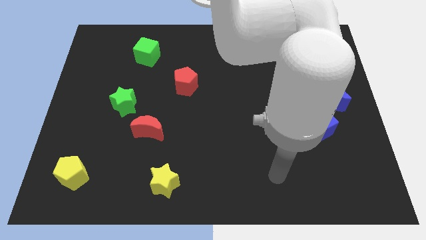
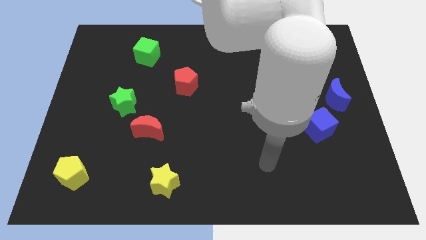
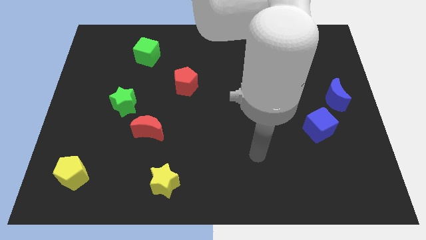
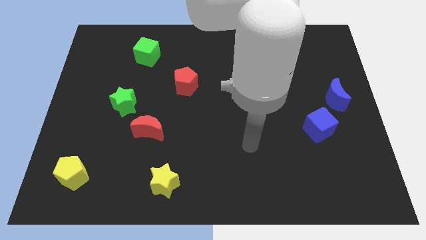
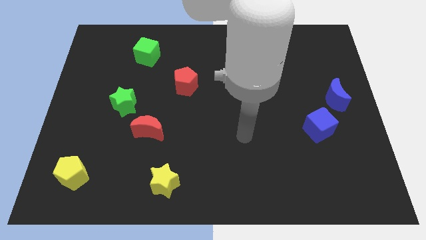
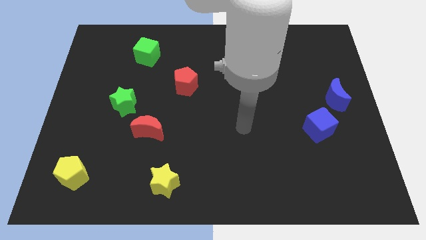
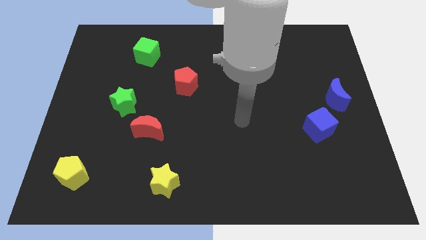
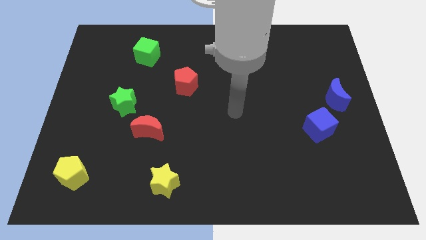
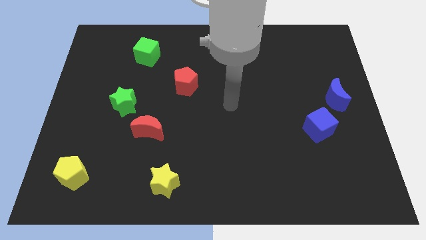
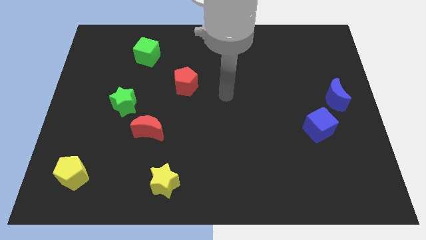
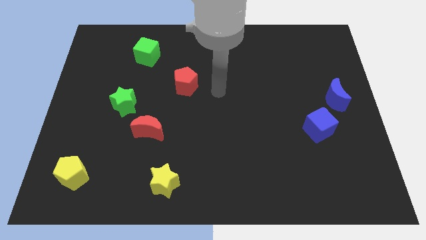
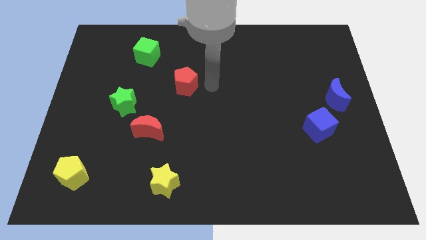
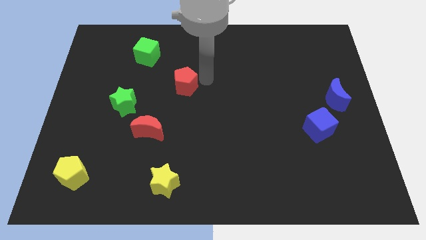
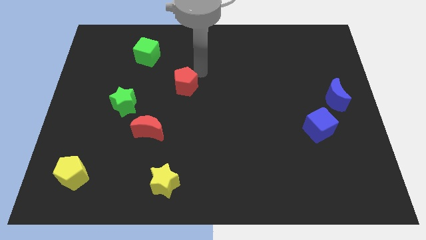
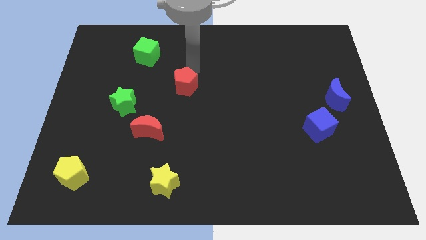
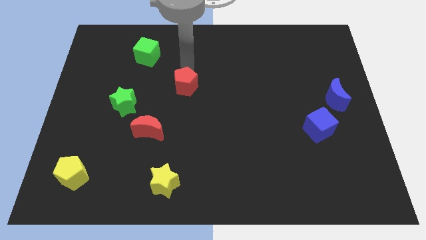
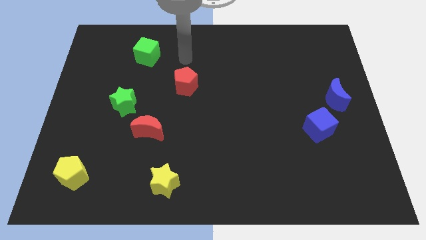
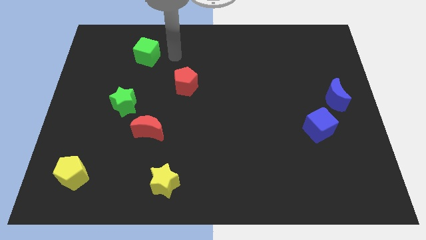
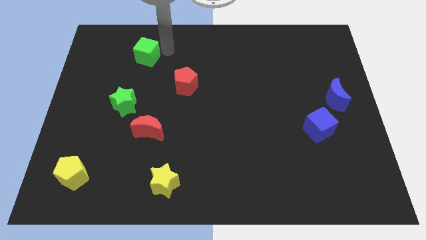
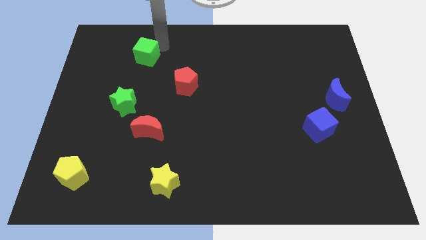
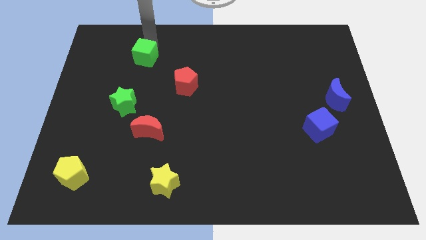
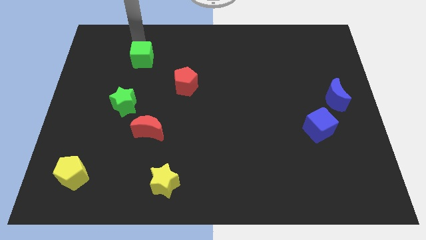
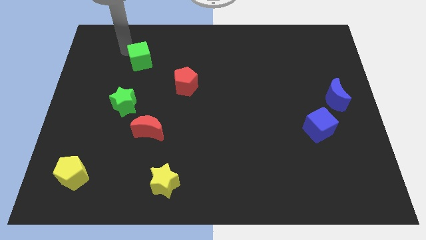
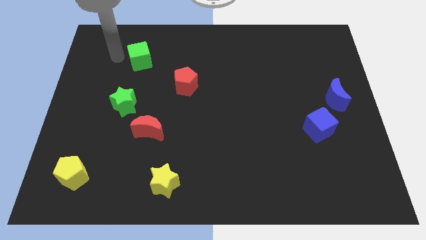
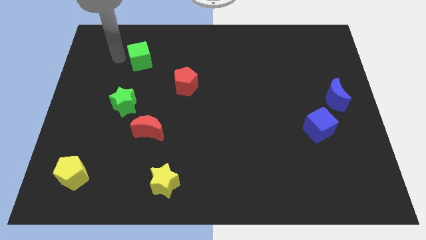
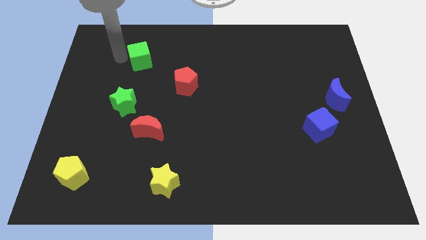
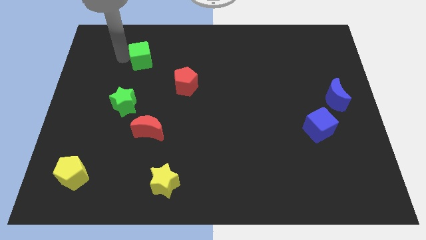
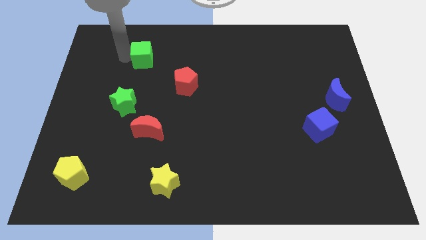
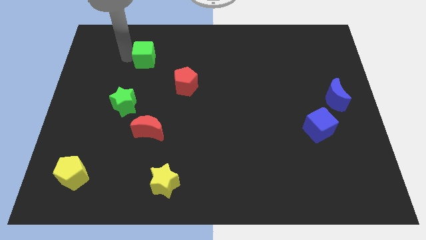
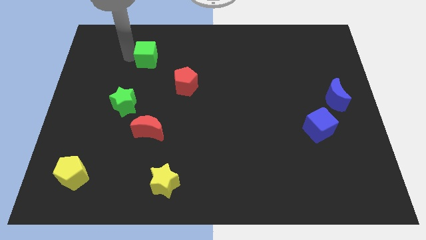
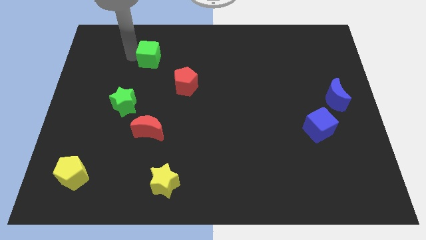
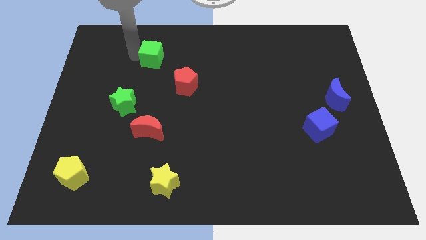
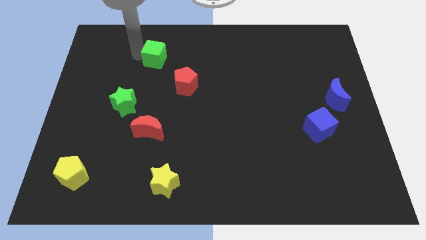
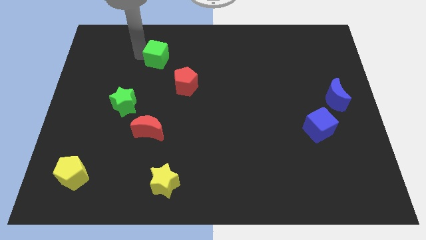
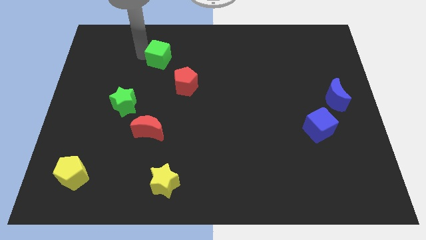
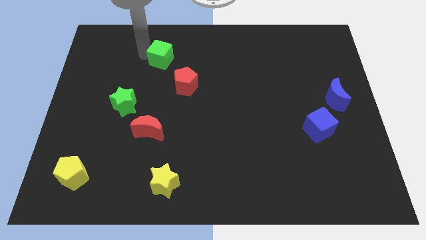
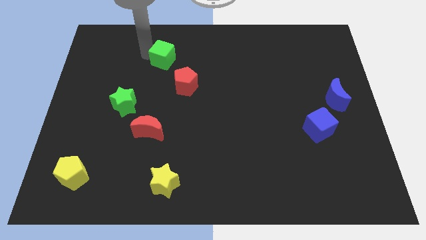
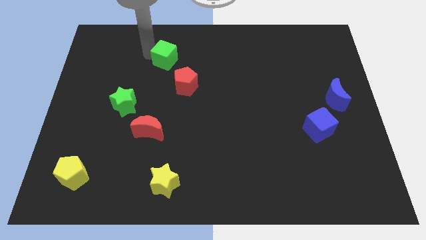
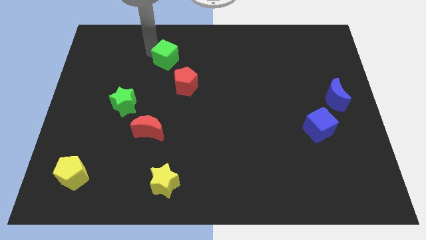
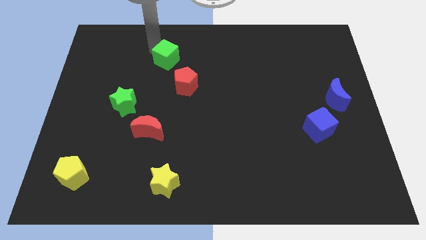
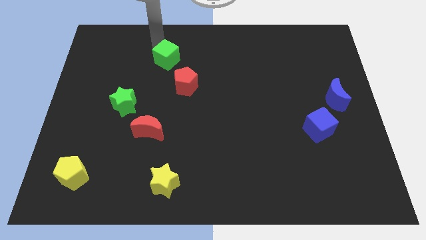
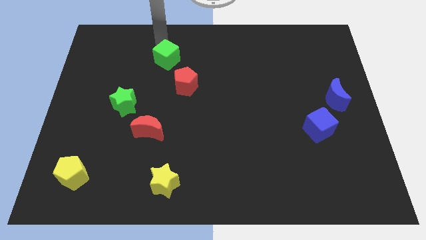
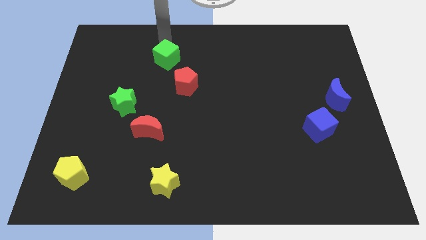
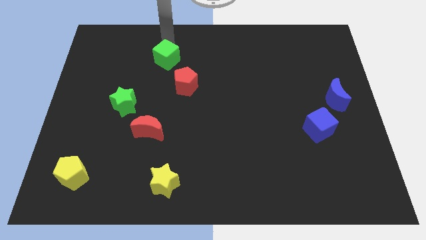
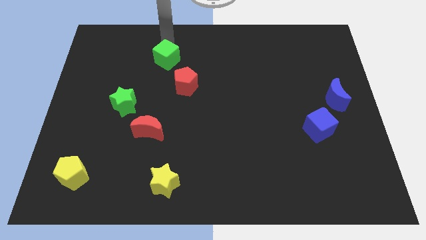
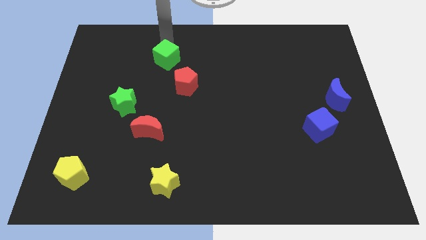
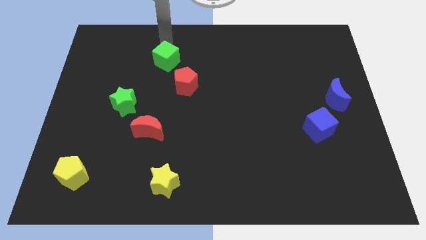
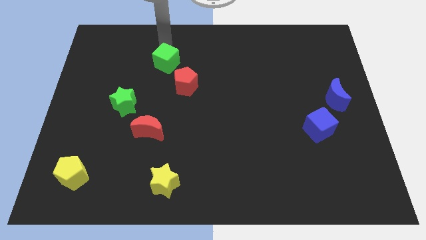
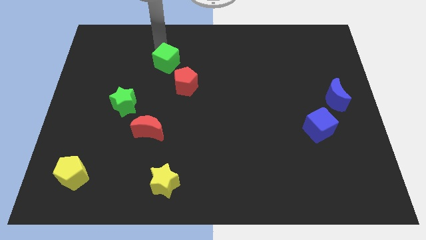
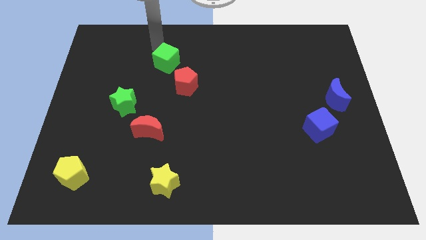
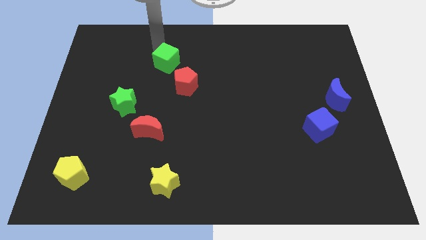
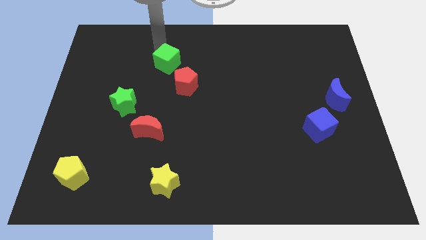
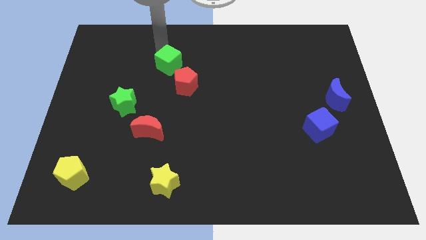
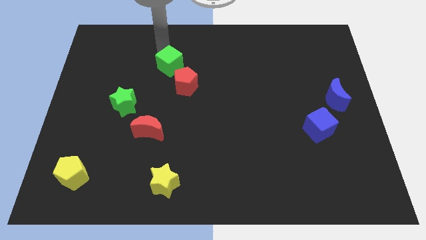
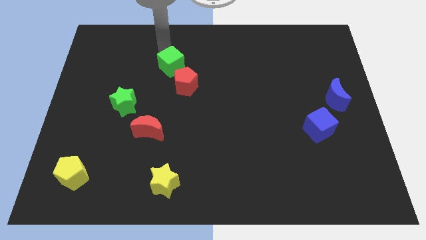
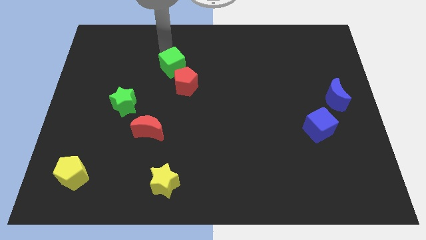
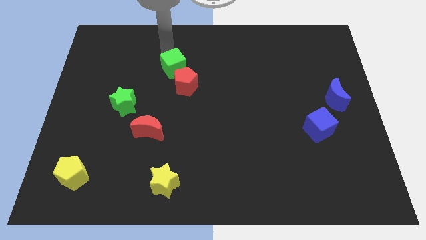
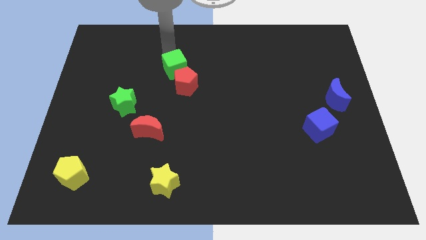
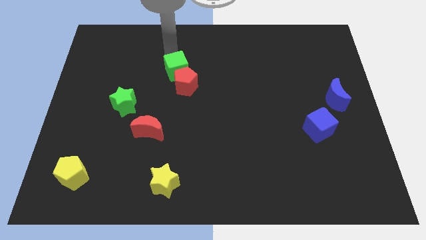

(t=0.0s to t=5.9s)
slide the green cube next to the red pentagon
